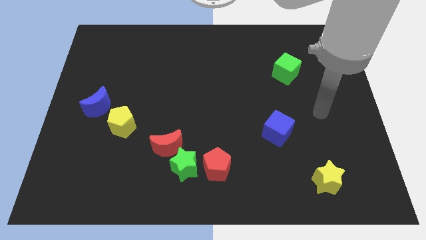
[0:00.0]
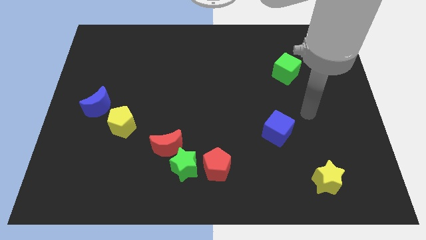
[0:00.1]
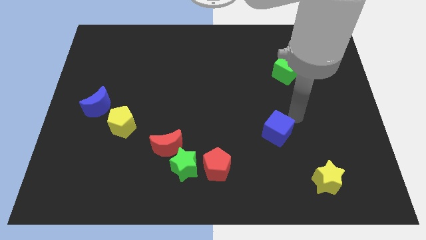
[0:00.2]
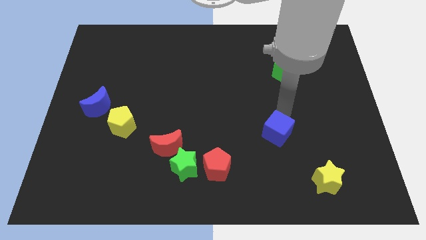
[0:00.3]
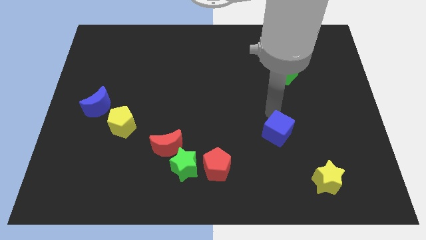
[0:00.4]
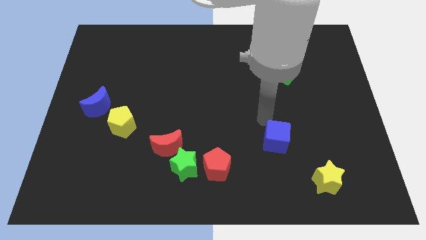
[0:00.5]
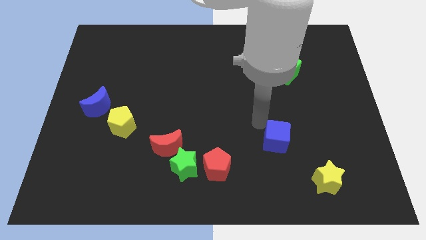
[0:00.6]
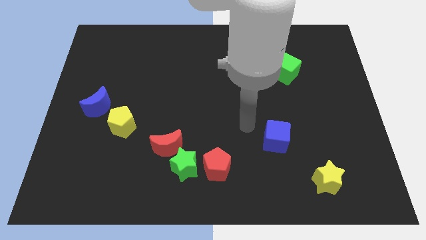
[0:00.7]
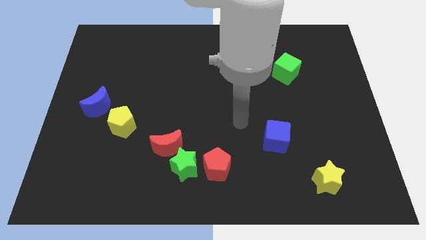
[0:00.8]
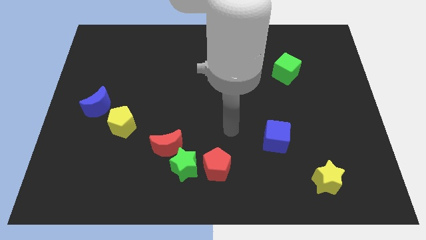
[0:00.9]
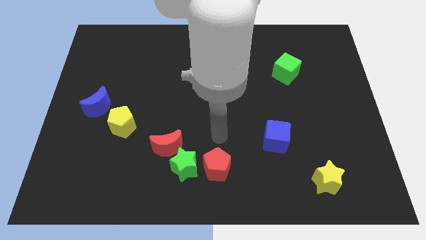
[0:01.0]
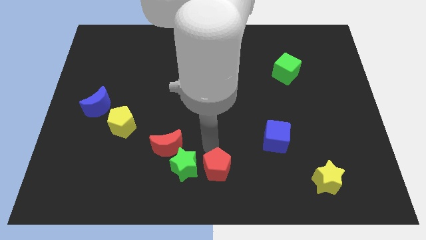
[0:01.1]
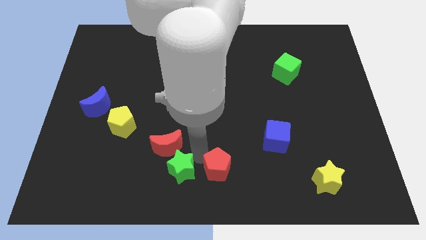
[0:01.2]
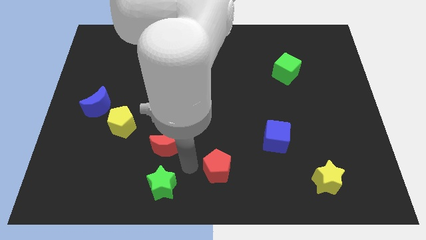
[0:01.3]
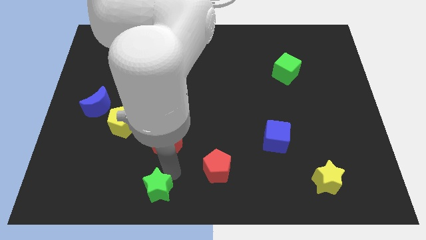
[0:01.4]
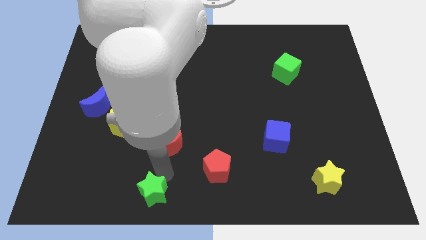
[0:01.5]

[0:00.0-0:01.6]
pull the red moon apart from the green star

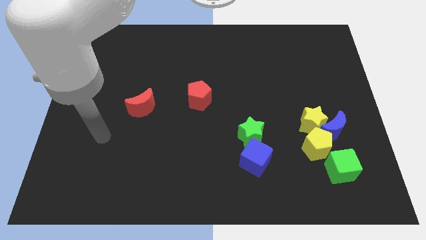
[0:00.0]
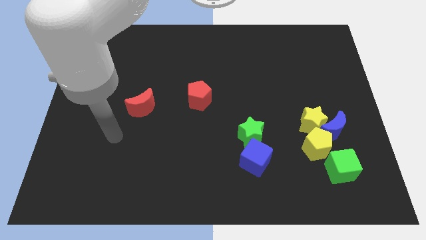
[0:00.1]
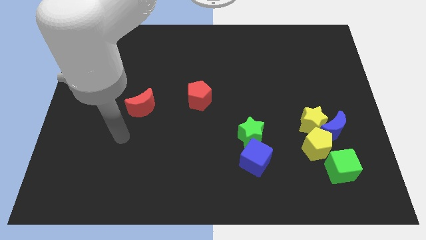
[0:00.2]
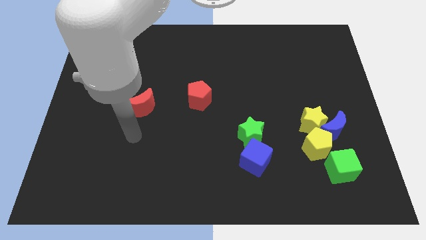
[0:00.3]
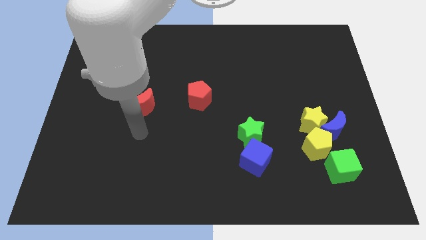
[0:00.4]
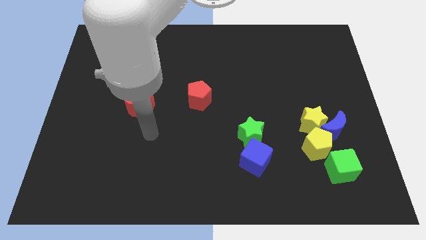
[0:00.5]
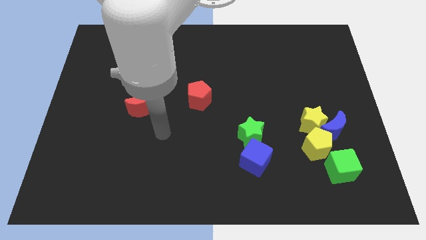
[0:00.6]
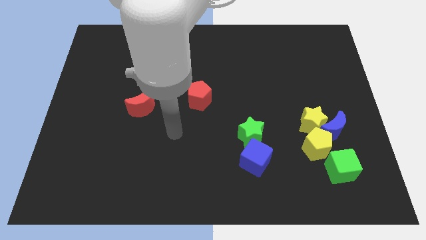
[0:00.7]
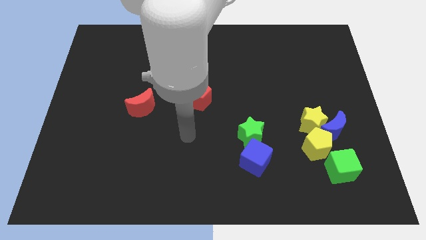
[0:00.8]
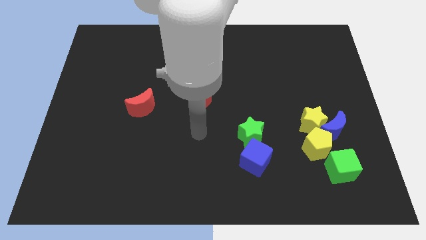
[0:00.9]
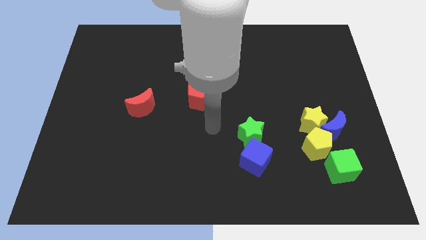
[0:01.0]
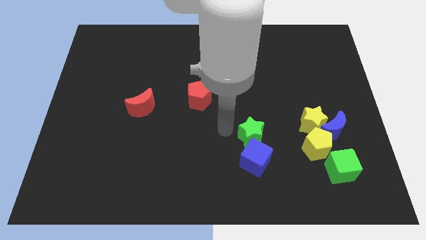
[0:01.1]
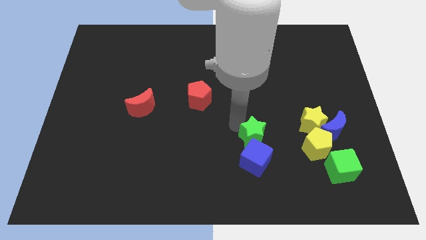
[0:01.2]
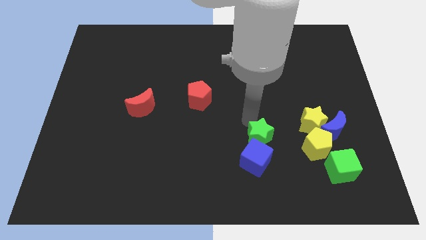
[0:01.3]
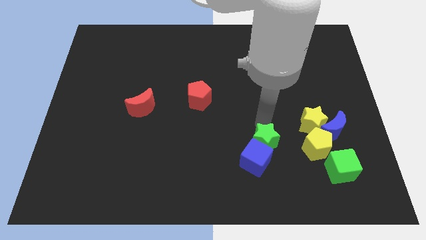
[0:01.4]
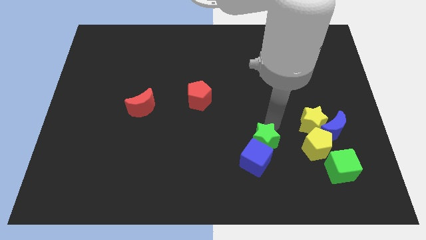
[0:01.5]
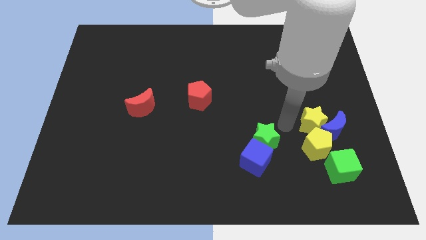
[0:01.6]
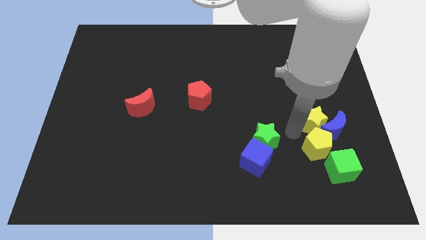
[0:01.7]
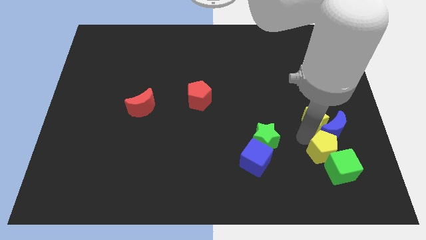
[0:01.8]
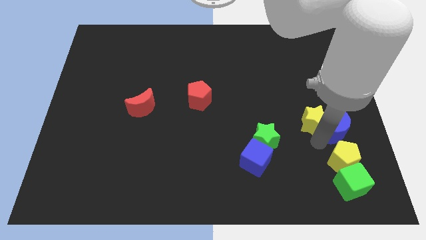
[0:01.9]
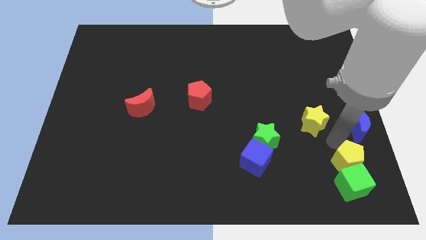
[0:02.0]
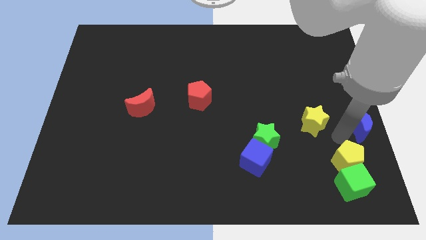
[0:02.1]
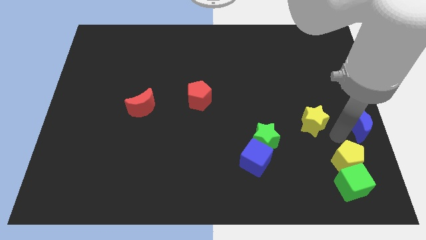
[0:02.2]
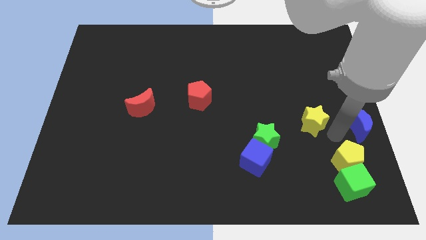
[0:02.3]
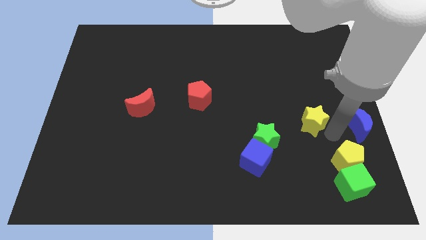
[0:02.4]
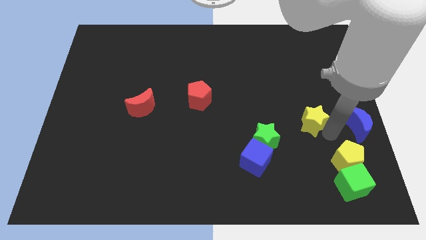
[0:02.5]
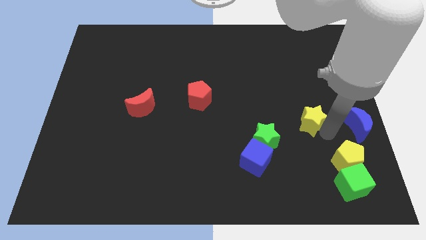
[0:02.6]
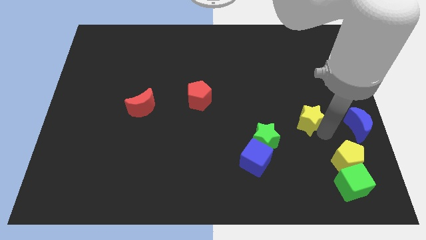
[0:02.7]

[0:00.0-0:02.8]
pull the yellow star apart from the blue moon and yellow pentagon

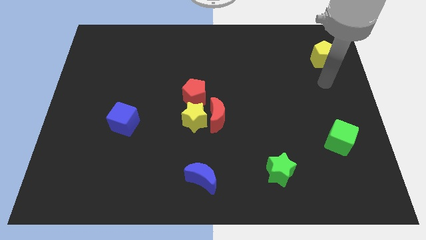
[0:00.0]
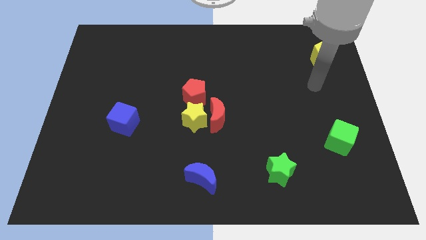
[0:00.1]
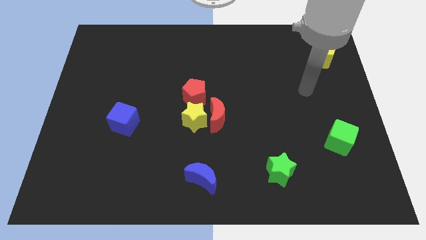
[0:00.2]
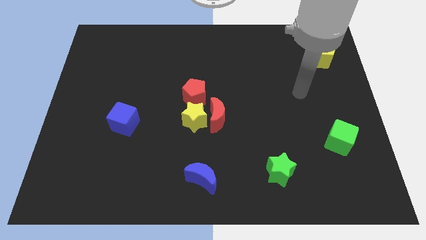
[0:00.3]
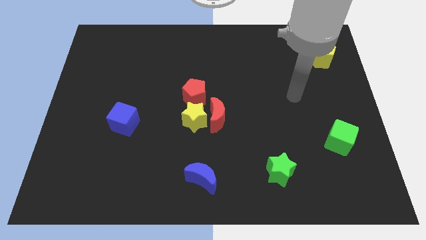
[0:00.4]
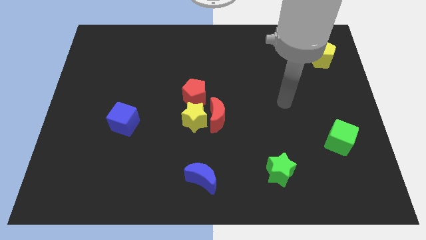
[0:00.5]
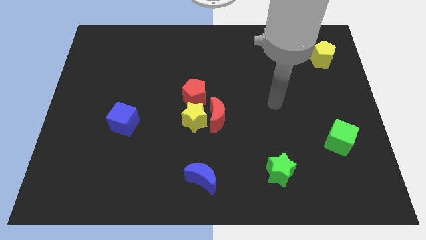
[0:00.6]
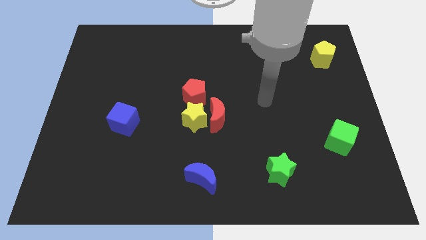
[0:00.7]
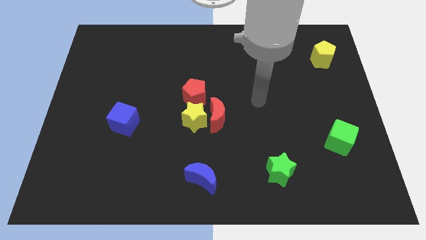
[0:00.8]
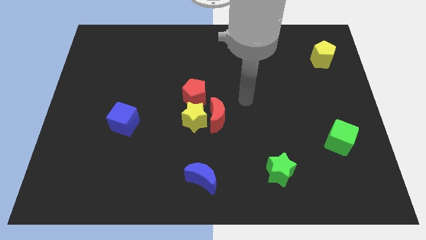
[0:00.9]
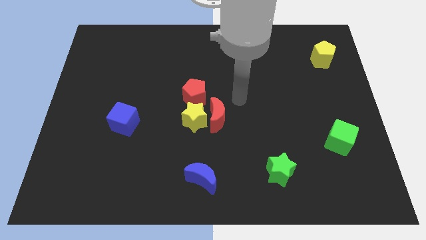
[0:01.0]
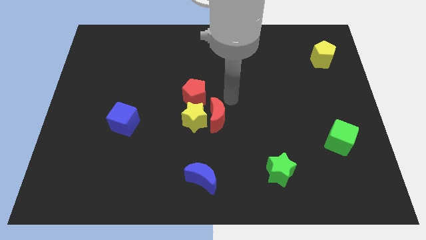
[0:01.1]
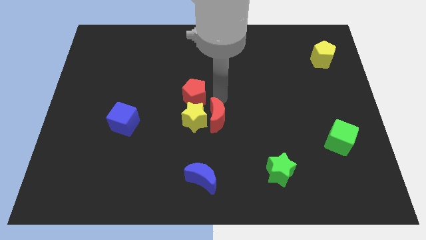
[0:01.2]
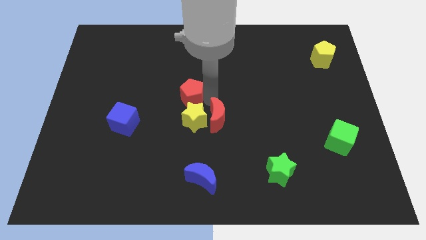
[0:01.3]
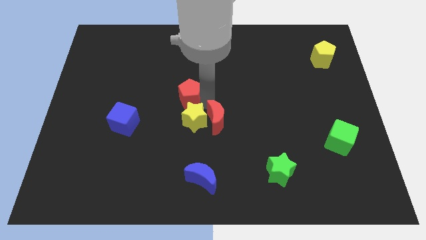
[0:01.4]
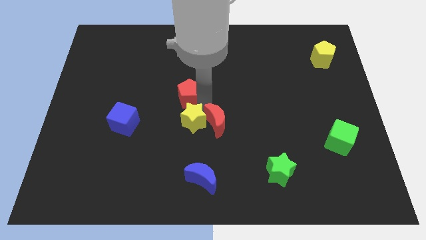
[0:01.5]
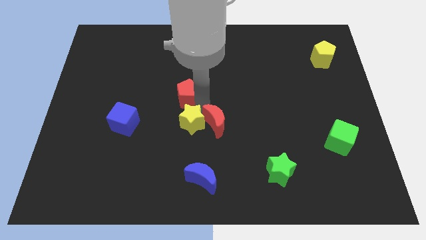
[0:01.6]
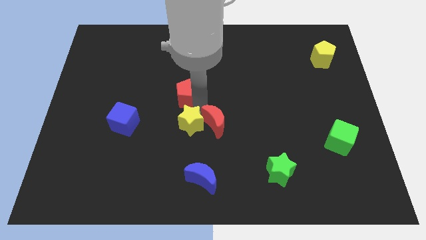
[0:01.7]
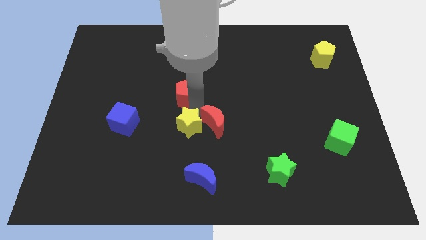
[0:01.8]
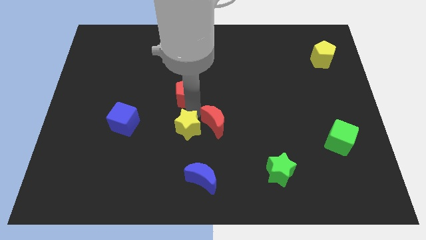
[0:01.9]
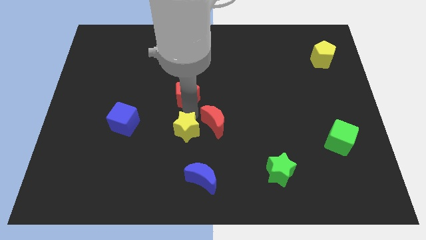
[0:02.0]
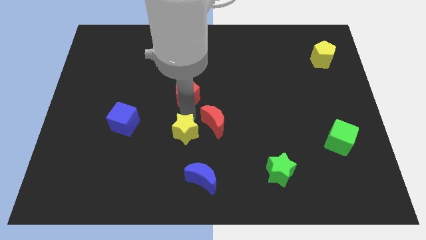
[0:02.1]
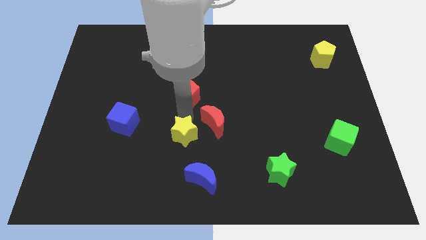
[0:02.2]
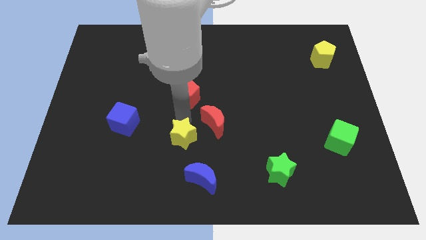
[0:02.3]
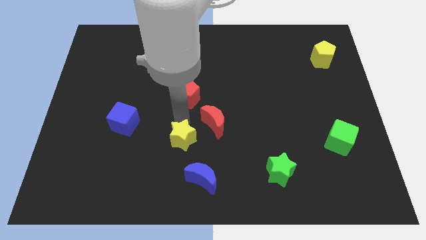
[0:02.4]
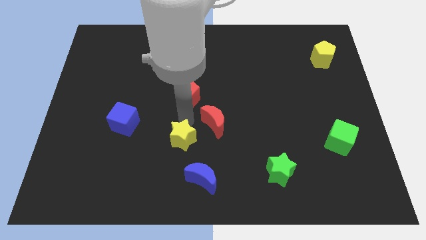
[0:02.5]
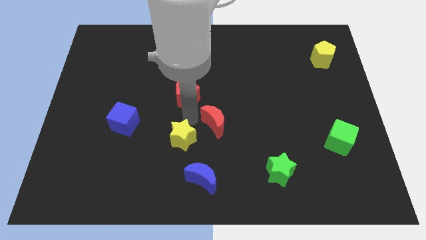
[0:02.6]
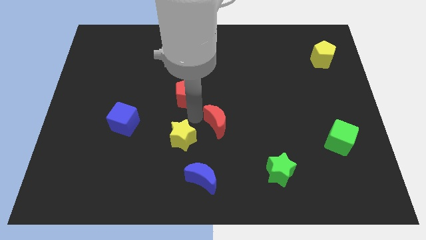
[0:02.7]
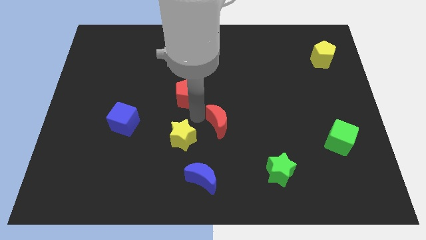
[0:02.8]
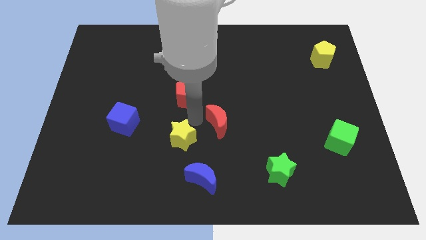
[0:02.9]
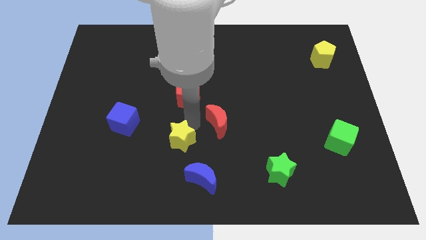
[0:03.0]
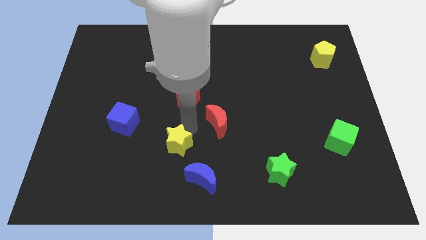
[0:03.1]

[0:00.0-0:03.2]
pull the yellow star apart from the red moon and red pentagon

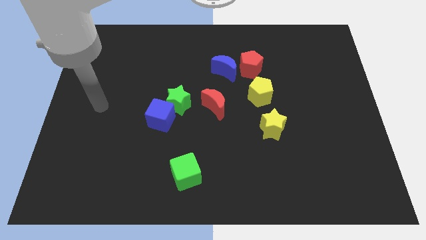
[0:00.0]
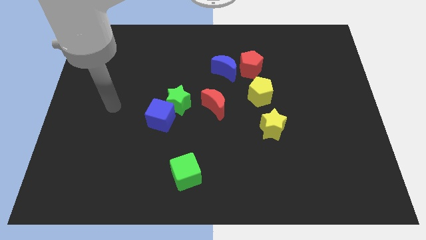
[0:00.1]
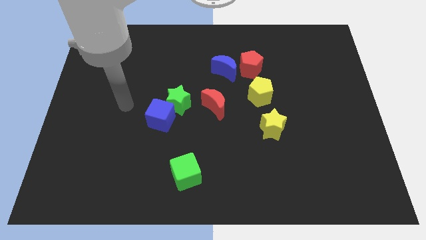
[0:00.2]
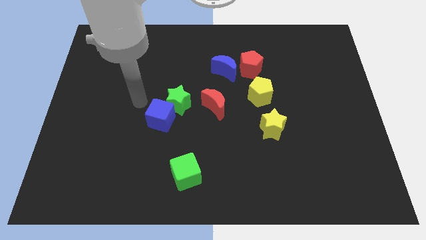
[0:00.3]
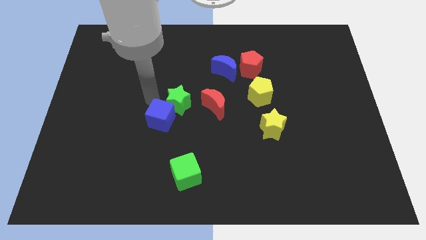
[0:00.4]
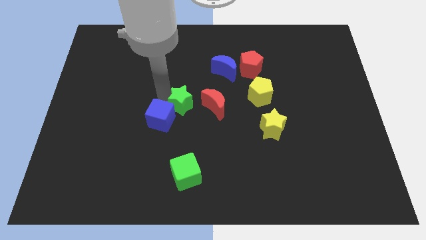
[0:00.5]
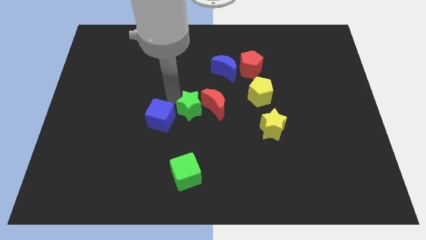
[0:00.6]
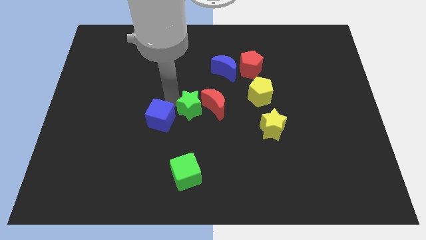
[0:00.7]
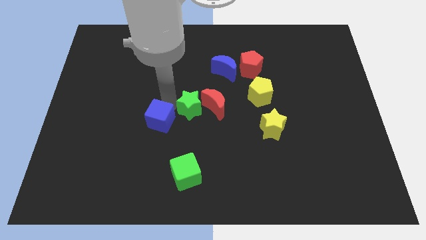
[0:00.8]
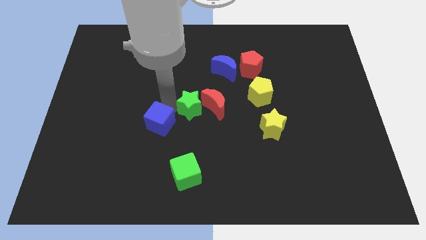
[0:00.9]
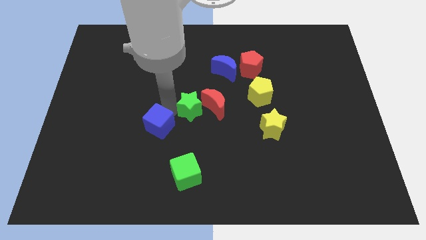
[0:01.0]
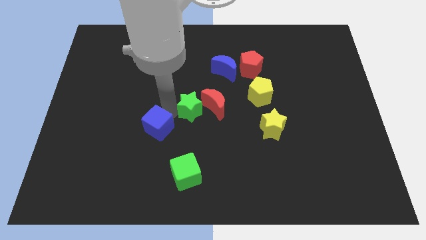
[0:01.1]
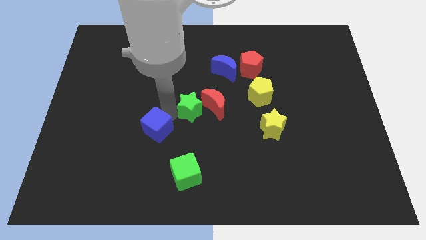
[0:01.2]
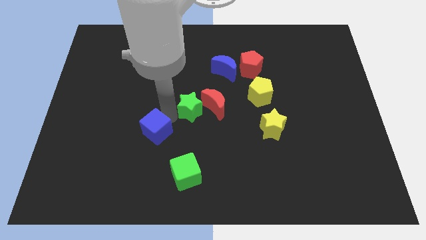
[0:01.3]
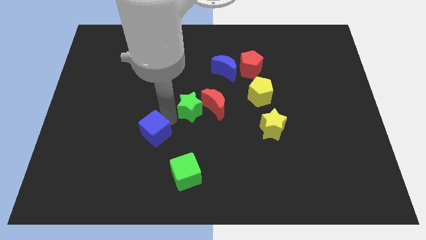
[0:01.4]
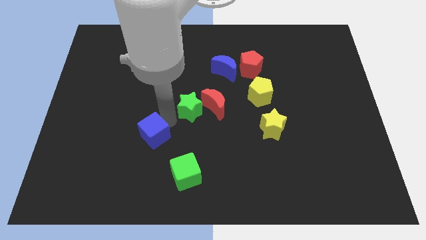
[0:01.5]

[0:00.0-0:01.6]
separate the blue cube from the green star

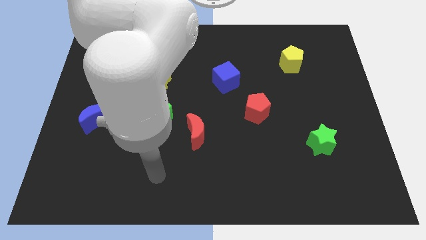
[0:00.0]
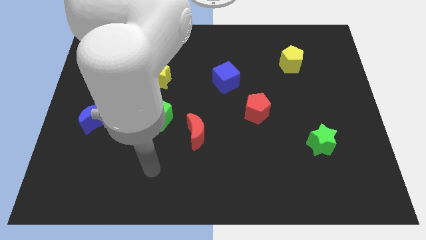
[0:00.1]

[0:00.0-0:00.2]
move the red moon away from the green cube

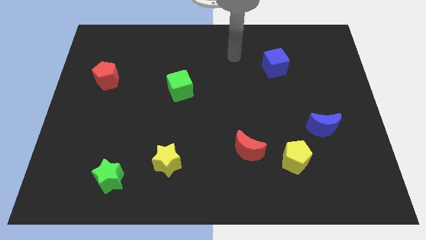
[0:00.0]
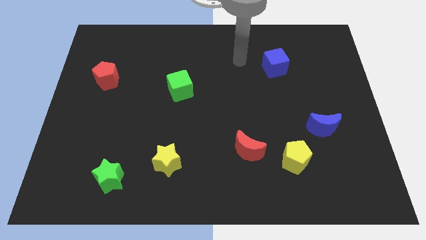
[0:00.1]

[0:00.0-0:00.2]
pull the red moon apart from the yellow pentagon
